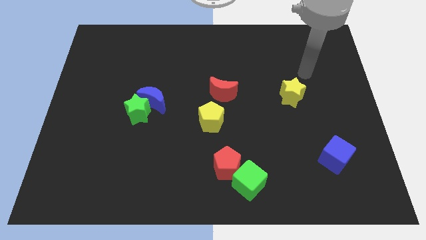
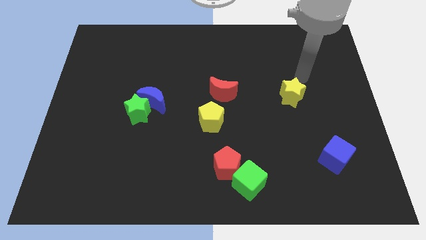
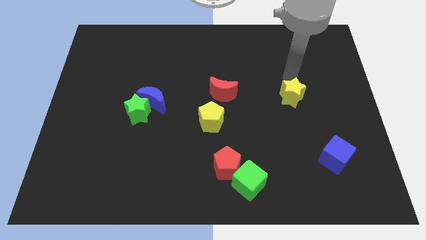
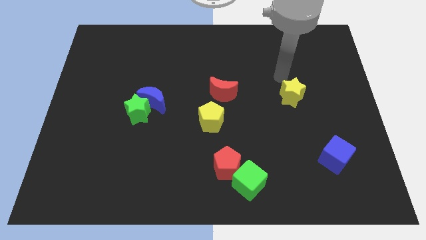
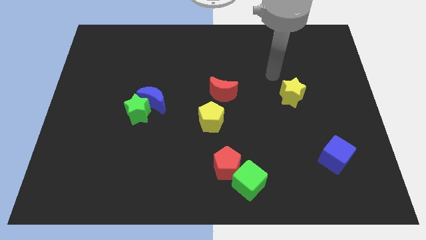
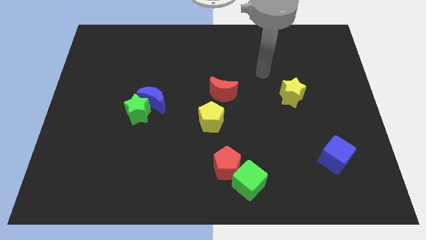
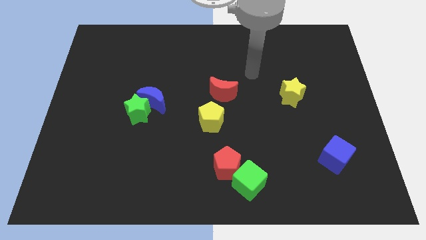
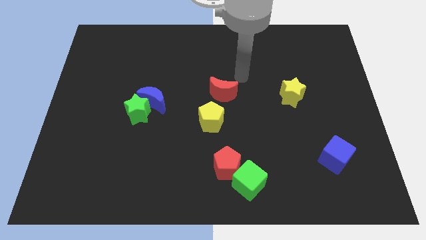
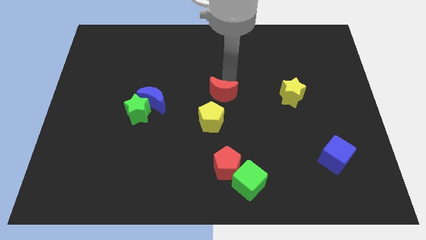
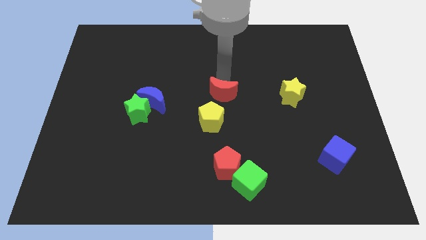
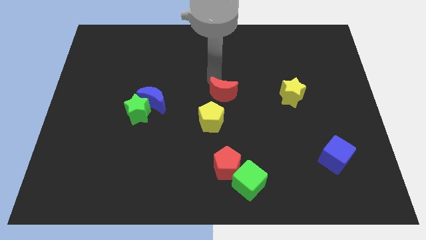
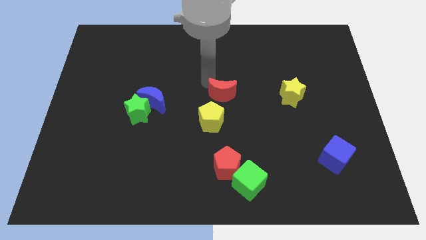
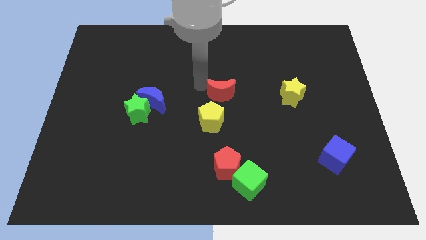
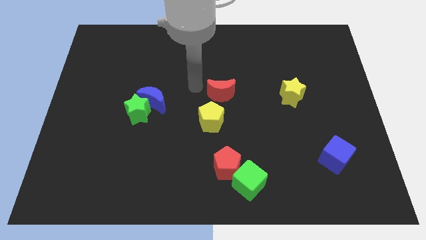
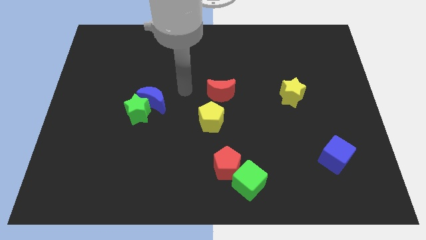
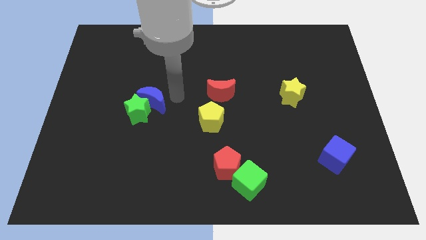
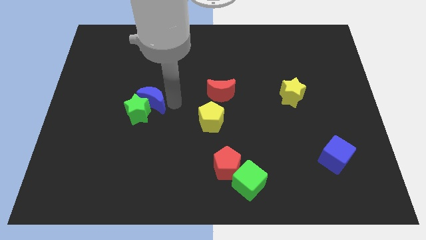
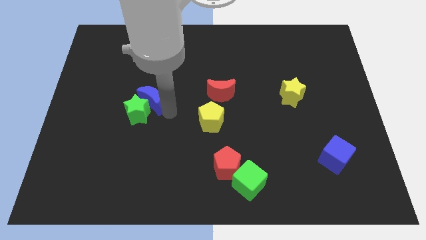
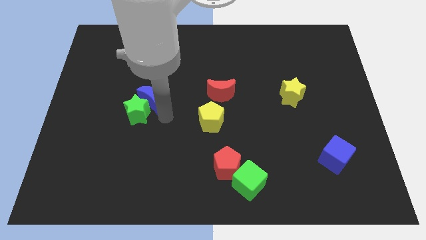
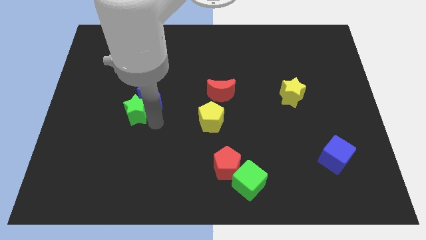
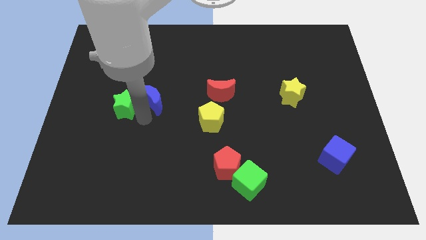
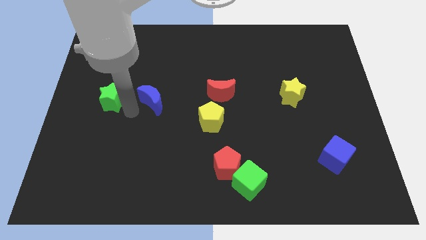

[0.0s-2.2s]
pull the blue moon apart from the green star

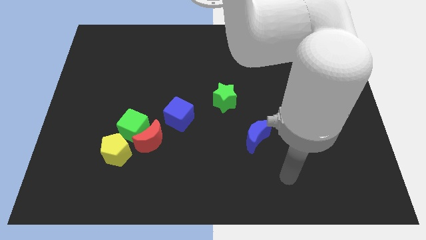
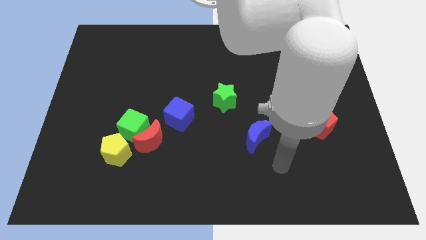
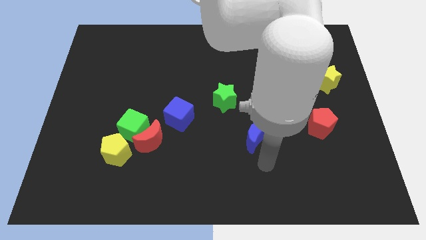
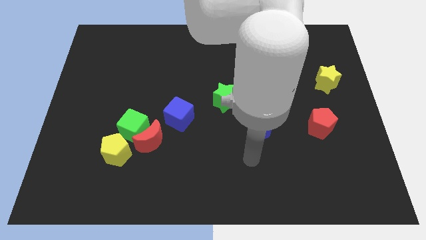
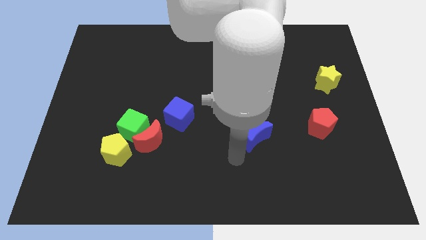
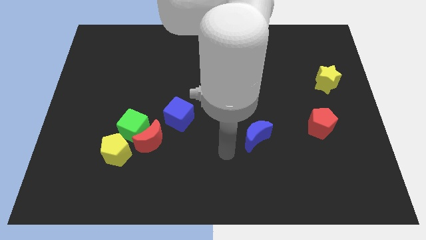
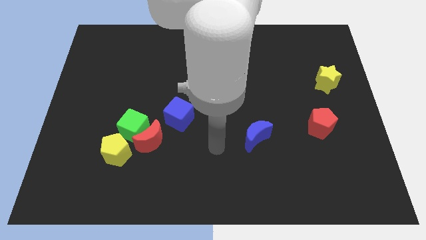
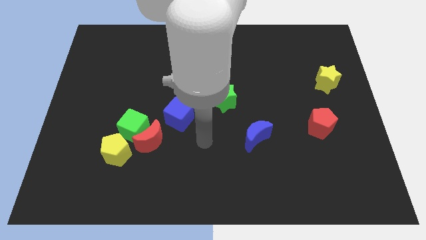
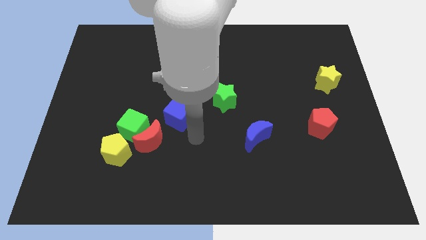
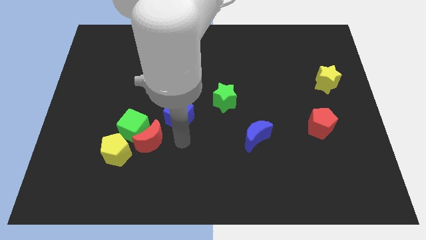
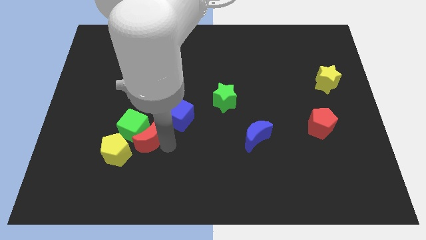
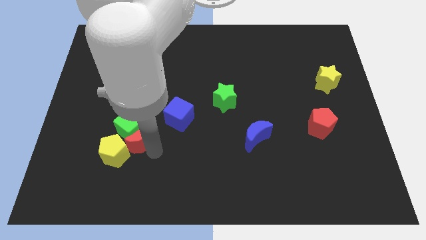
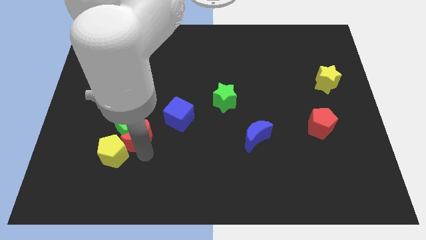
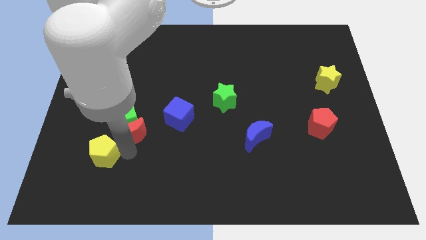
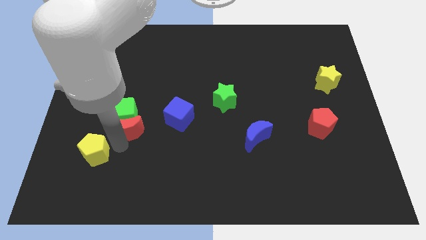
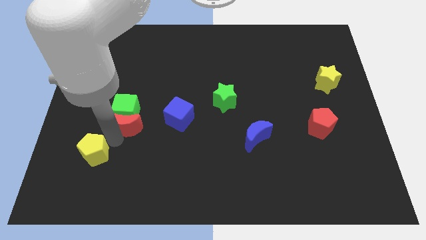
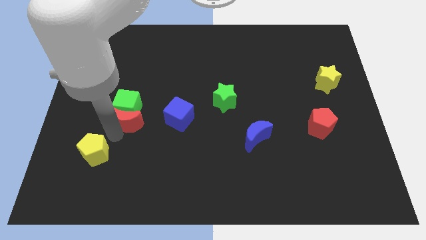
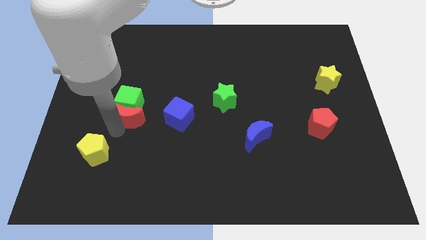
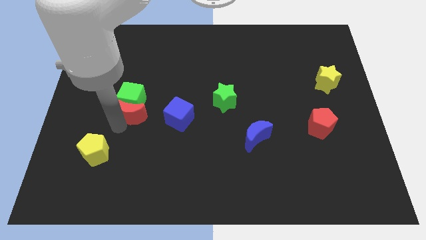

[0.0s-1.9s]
separate the green cube from the red moon and yellow pentagon

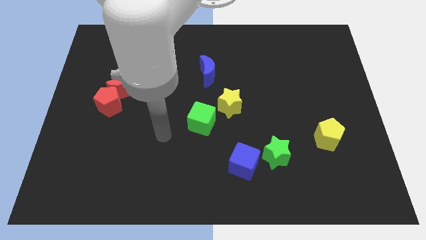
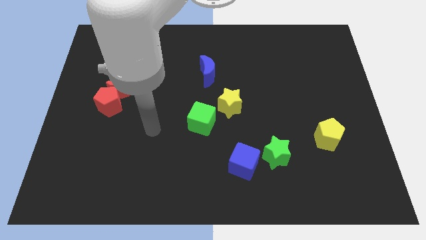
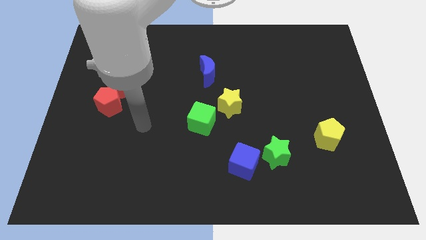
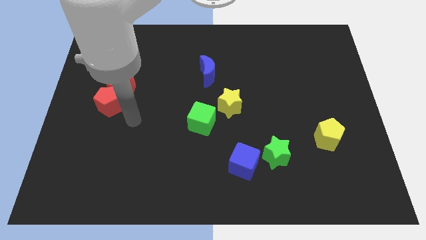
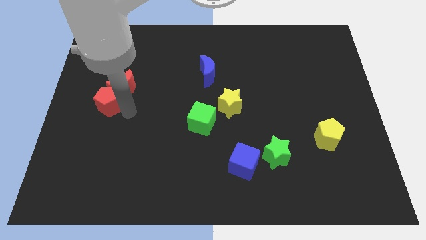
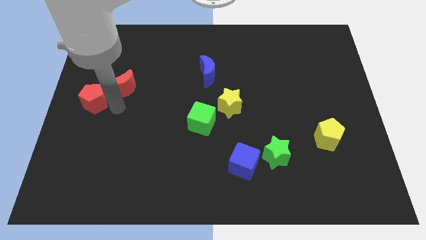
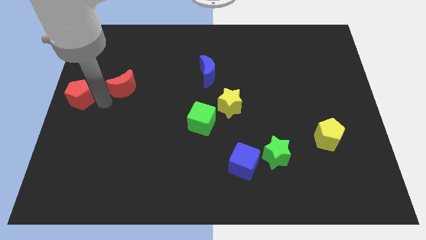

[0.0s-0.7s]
separate the red moon from the red pentagon

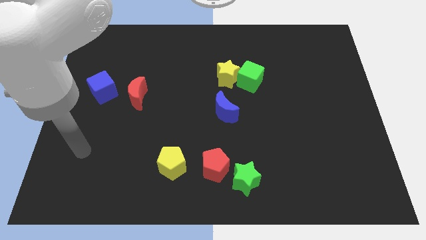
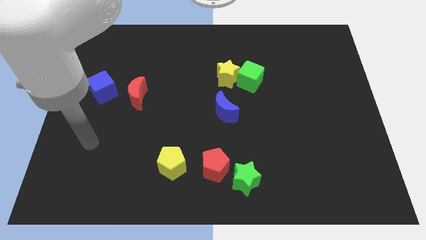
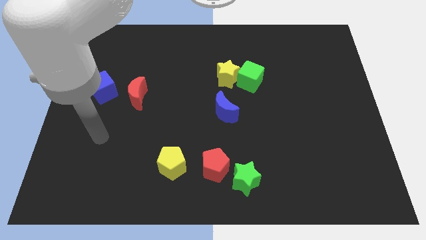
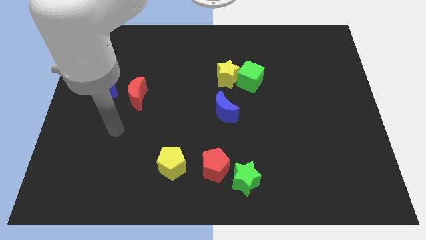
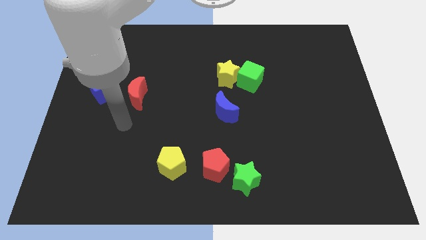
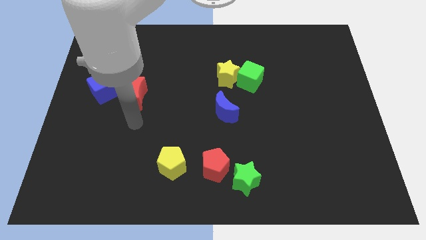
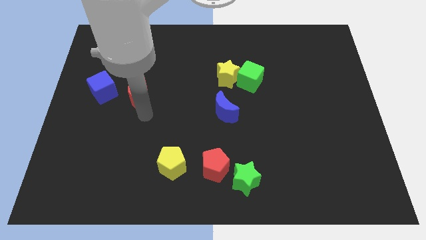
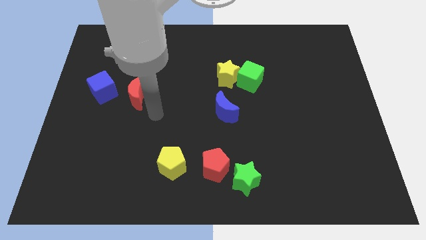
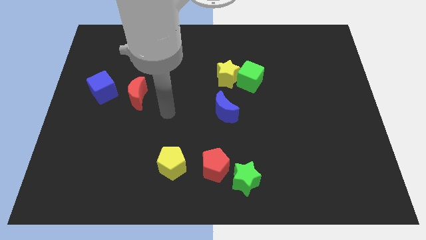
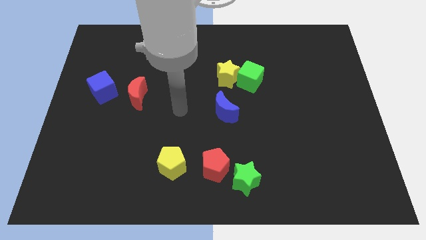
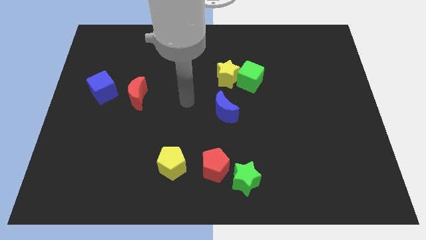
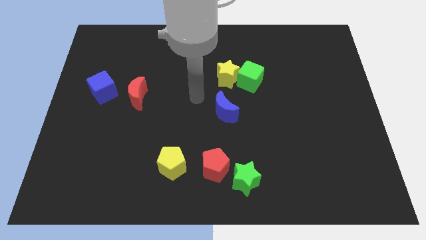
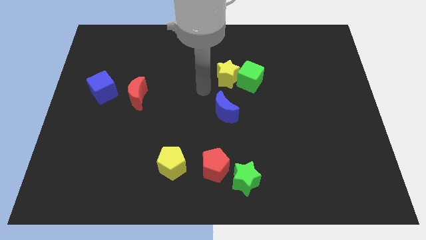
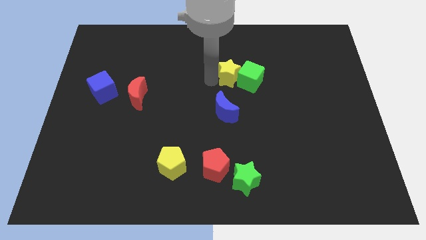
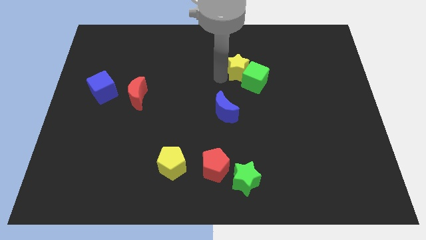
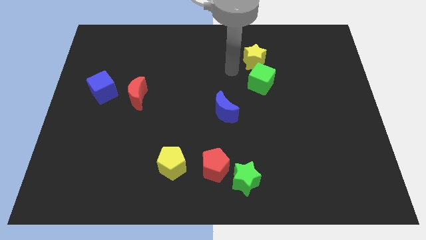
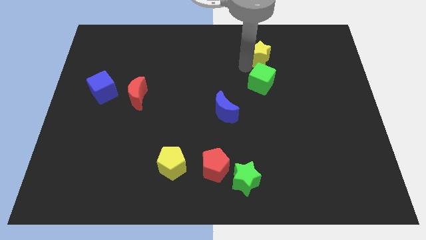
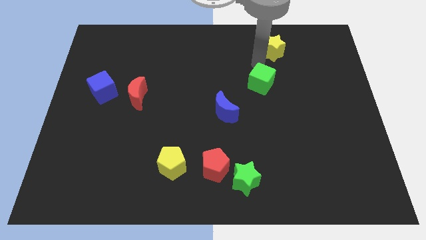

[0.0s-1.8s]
move the green cube away from the yellow star

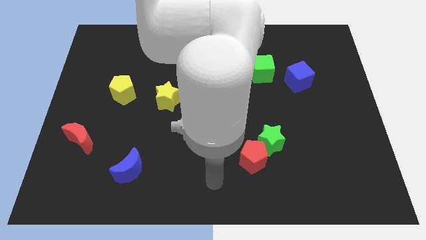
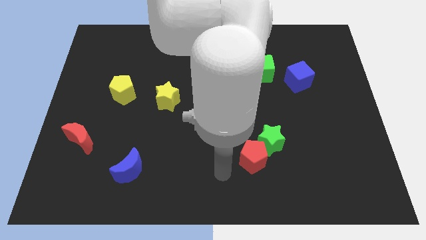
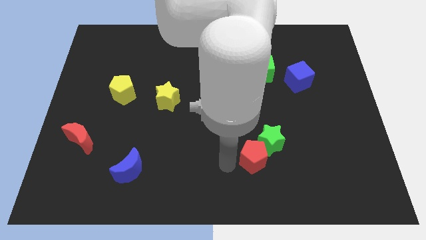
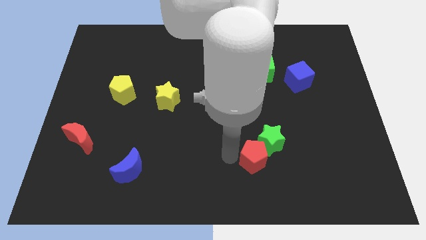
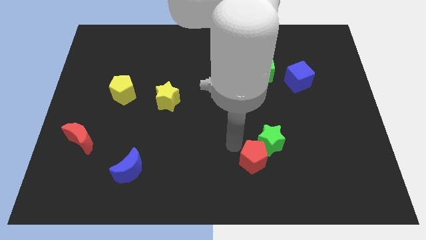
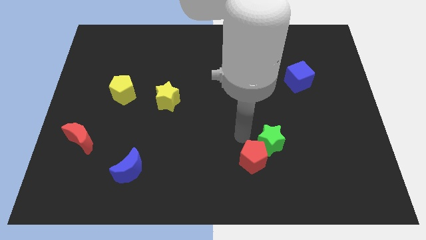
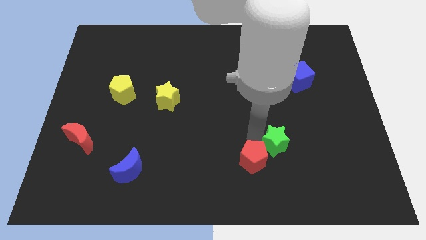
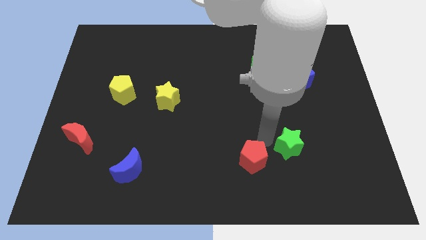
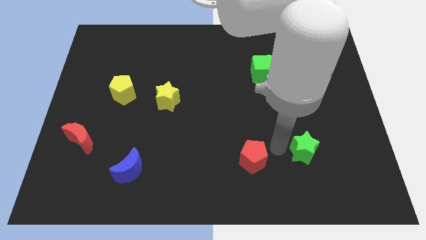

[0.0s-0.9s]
separate the red pentagon from the green star

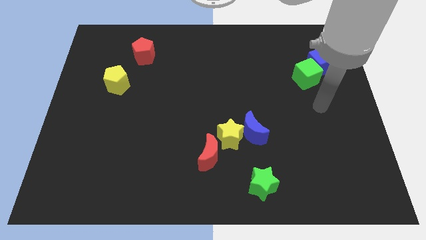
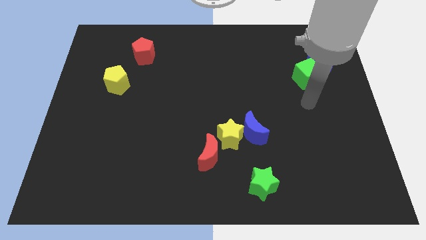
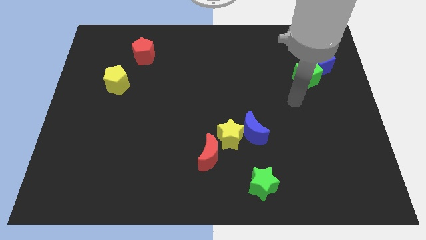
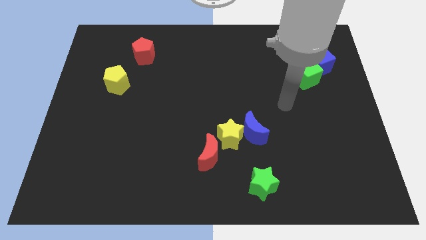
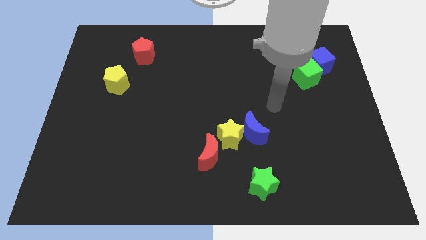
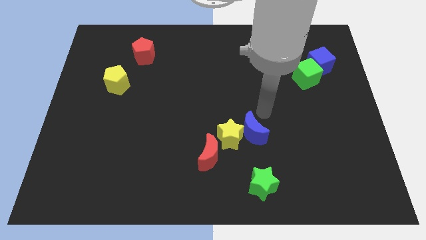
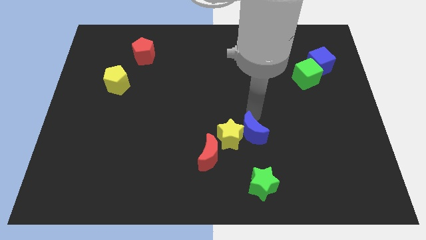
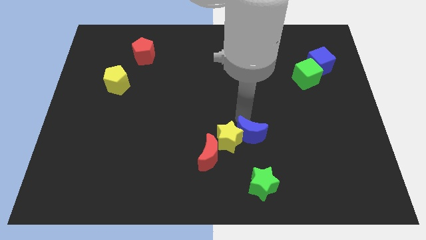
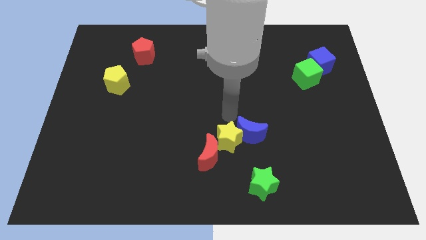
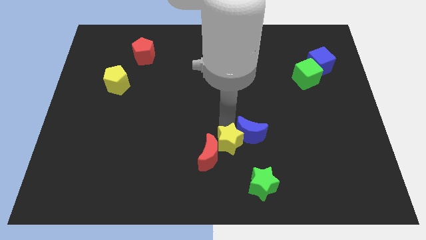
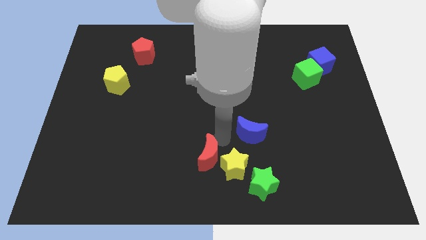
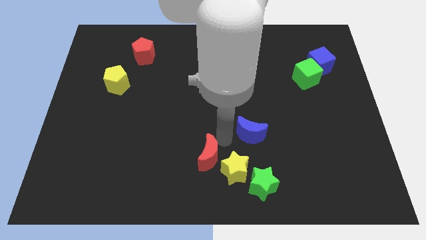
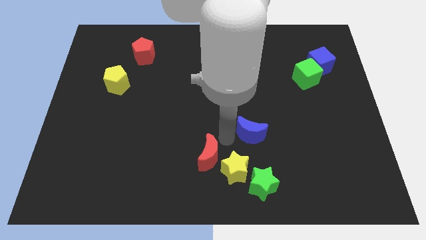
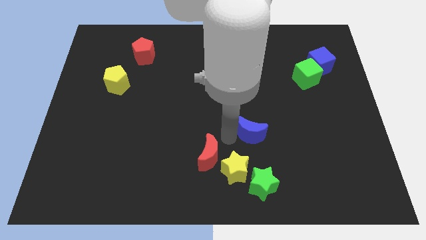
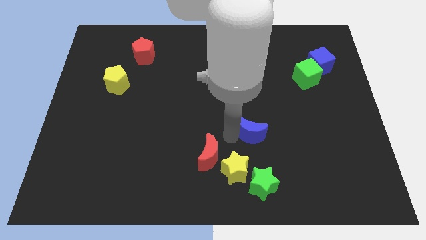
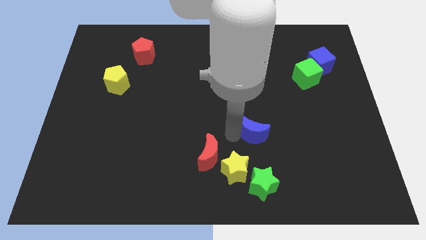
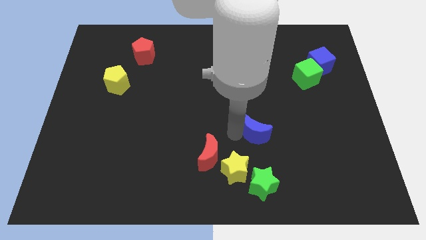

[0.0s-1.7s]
move the blue moon away from the yellow star

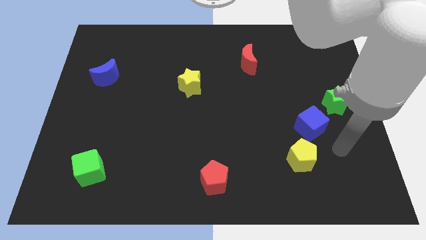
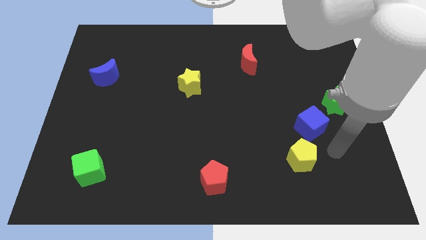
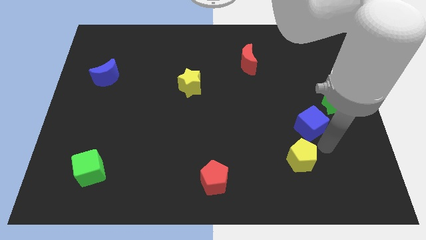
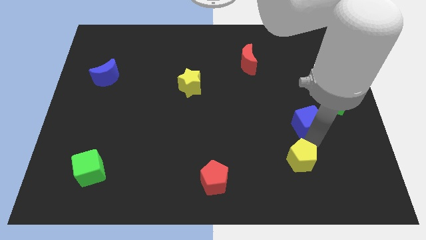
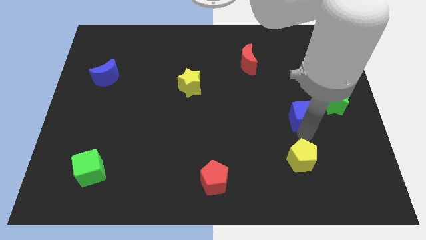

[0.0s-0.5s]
move the yellow pentagon away from the blue cube
